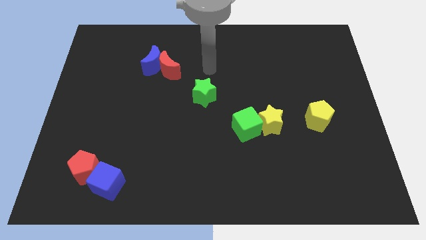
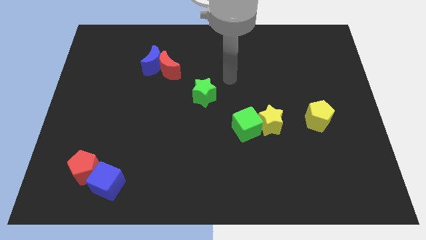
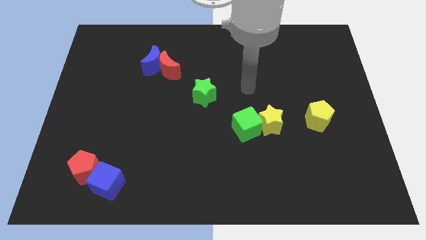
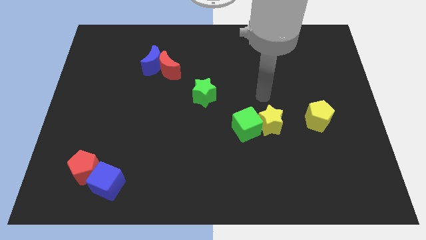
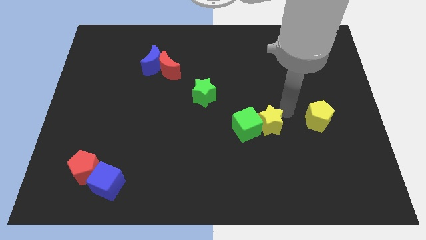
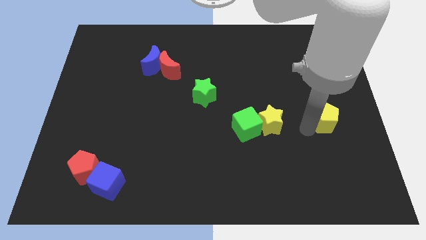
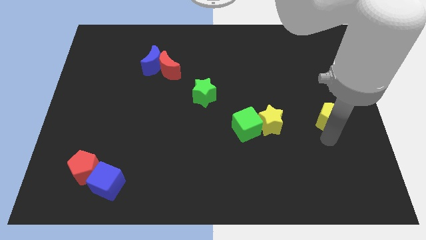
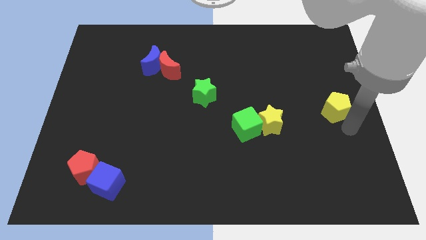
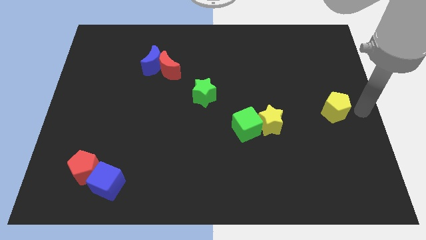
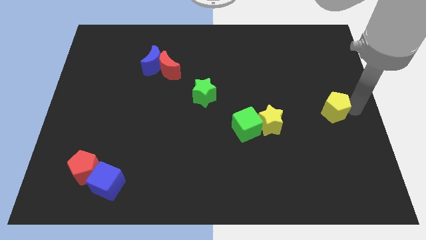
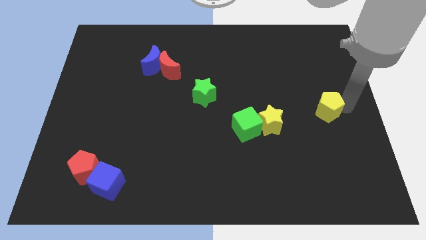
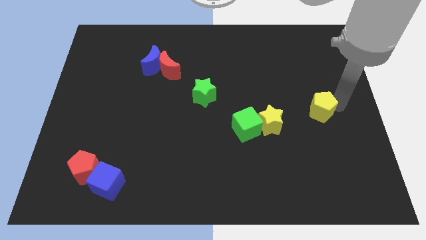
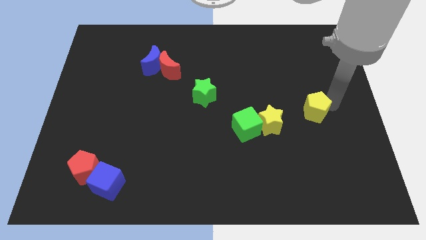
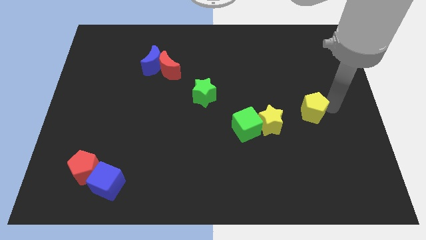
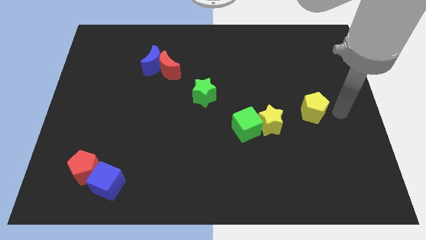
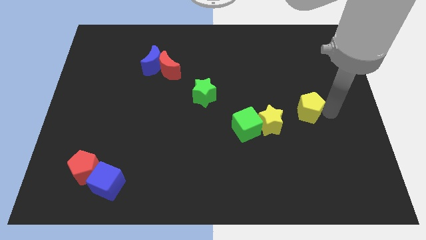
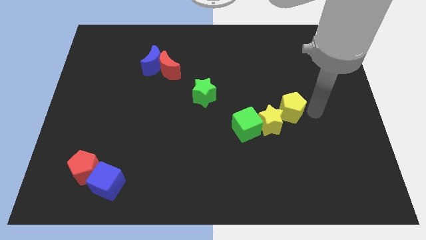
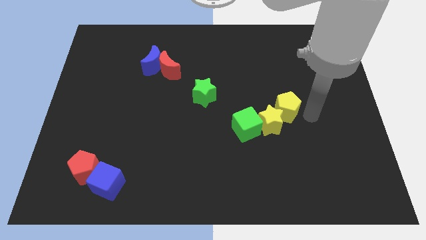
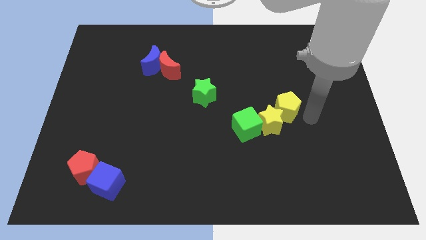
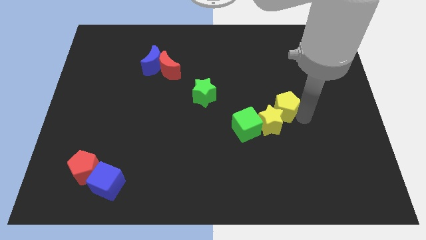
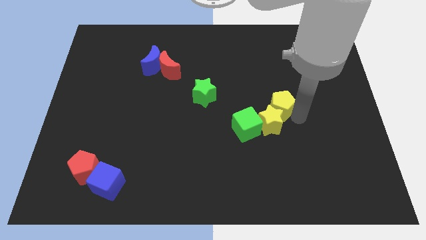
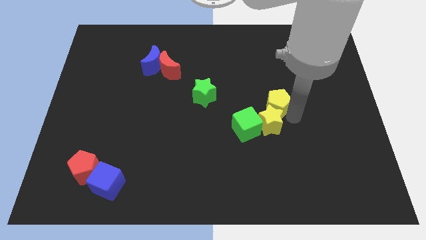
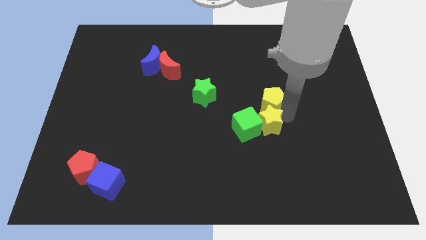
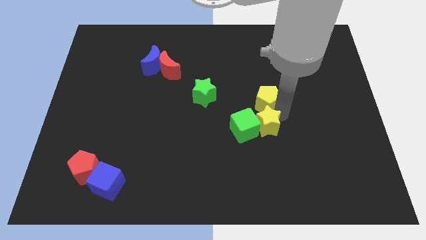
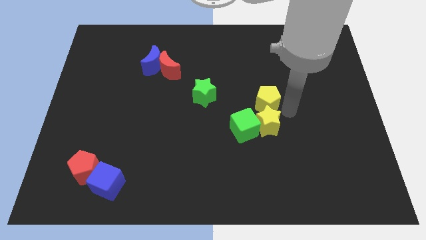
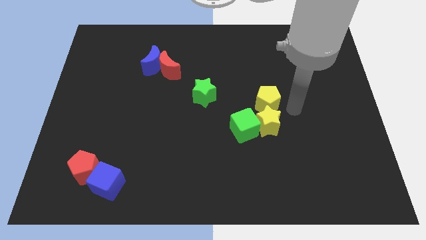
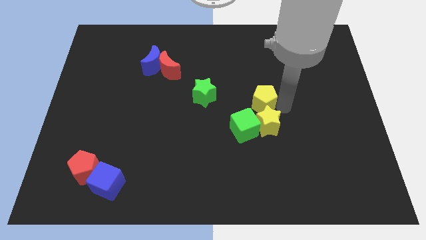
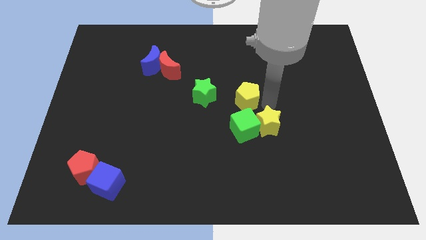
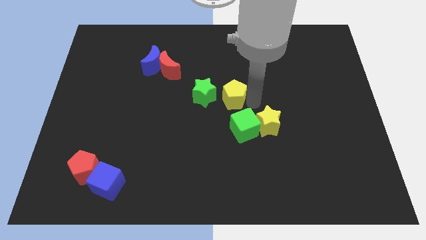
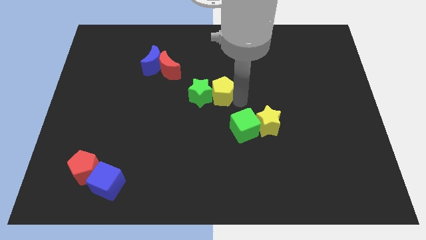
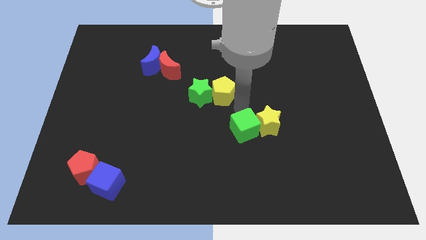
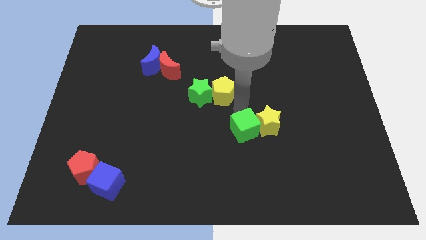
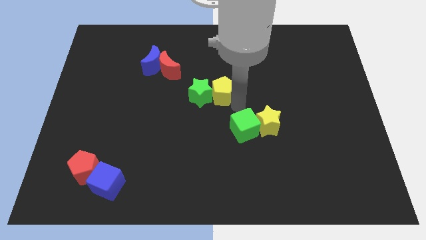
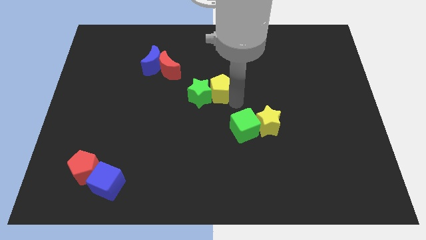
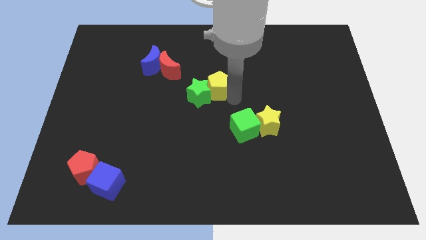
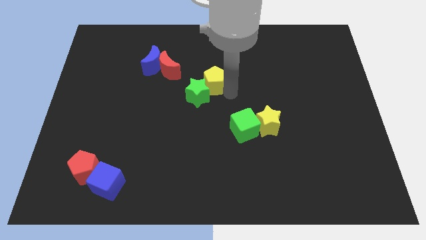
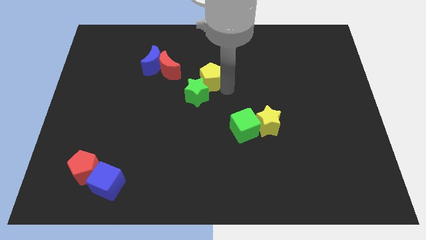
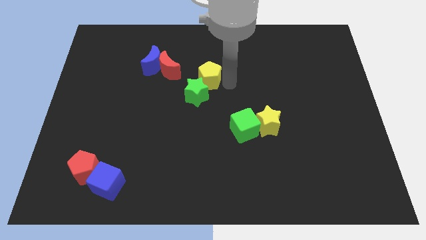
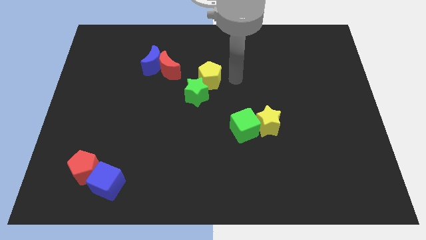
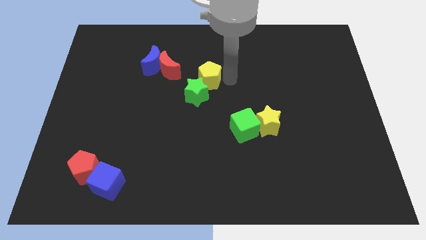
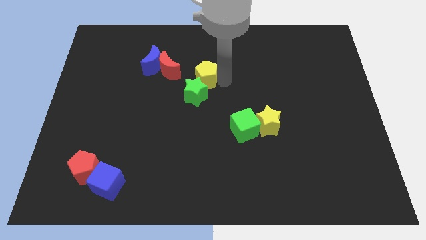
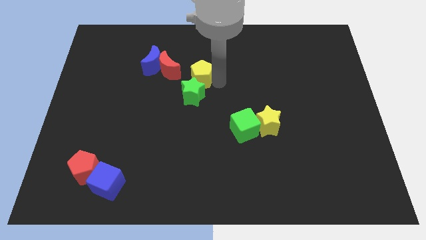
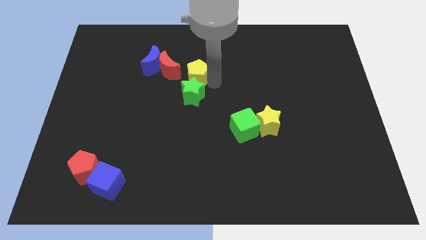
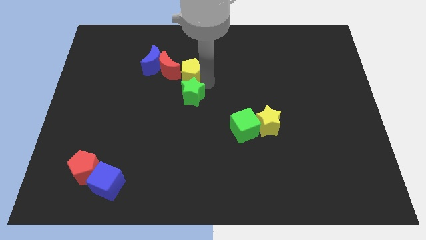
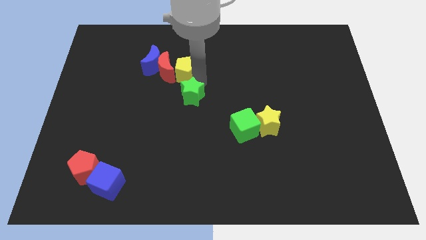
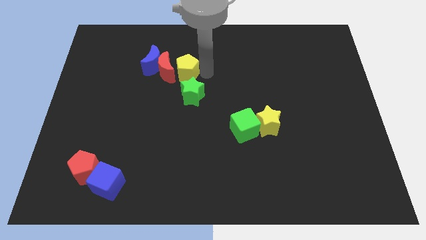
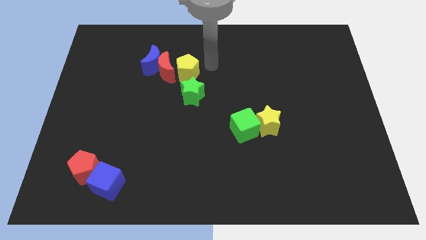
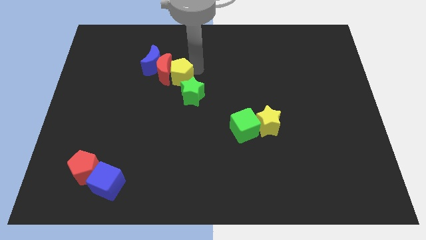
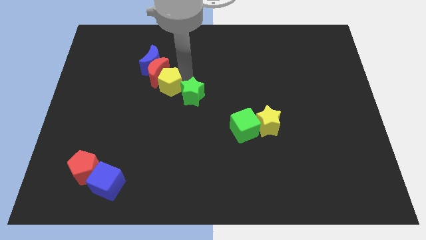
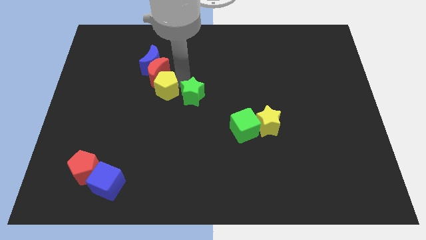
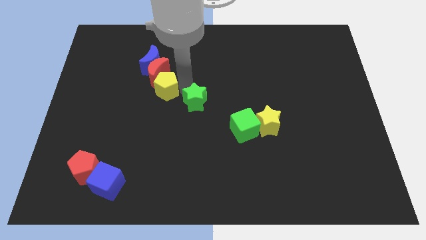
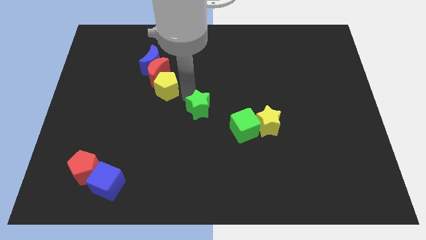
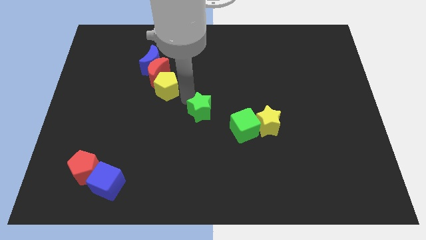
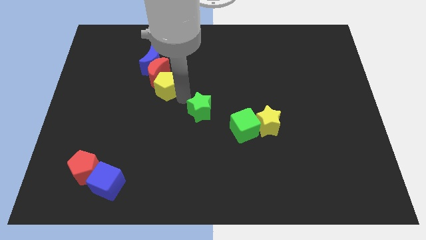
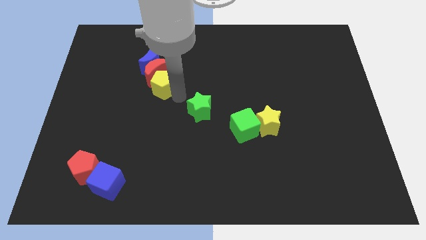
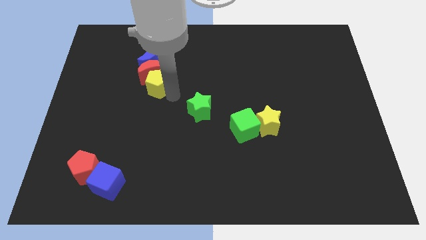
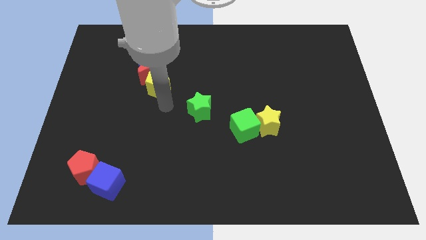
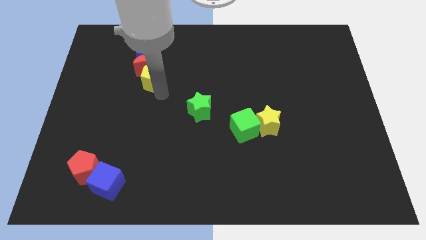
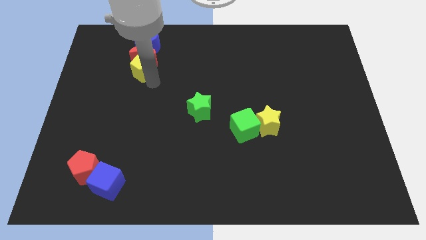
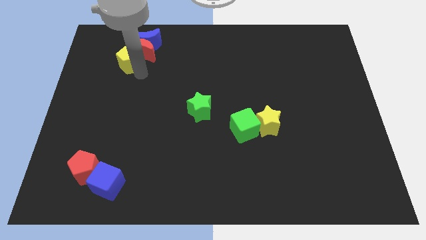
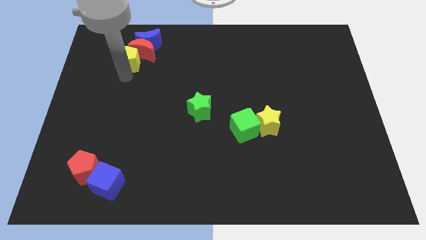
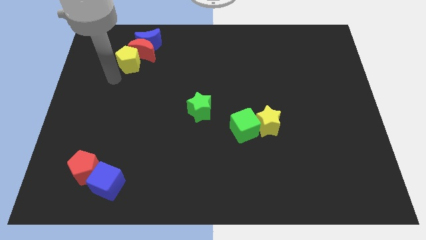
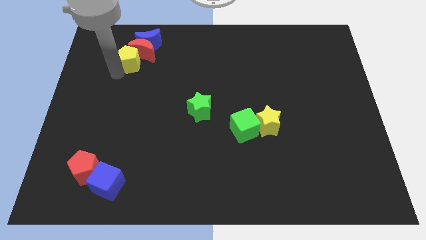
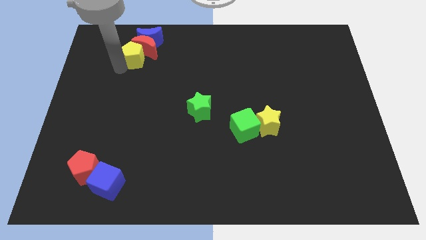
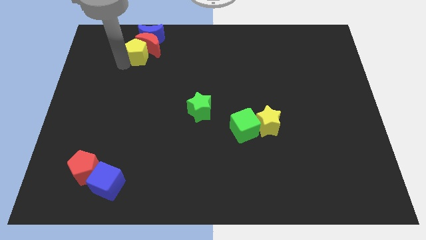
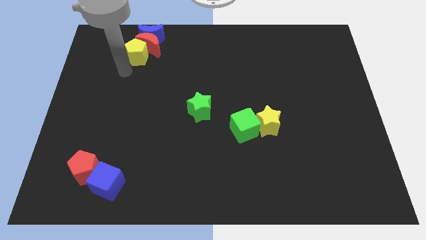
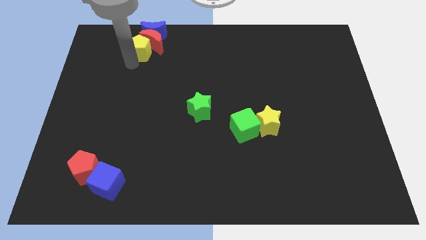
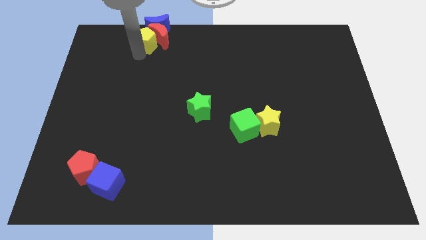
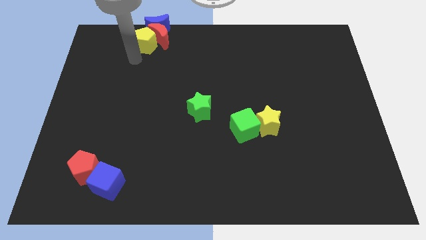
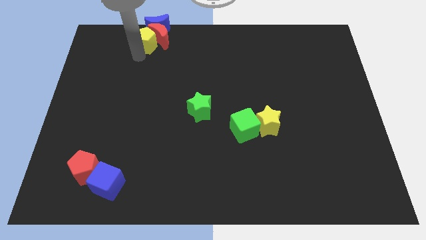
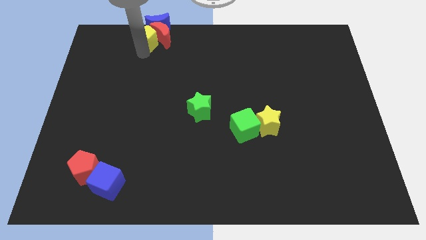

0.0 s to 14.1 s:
push the yellow pentagon to the blue moon

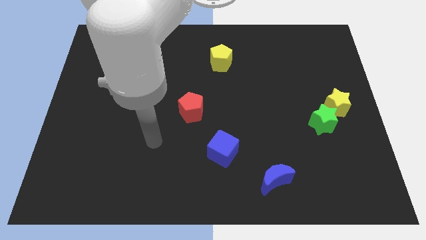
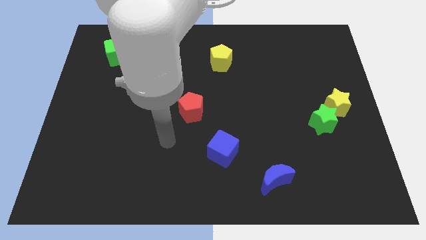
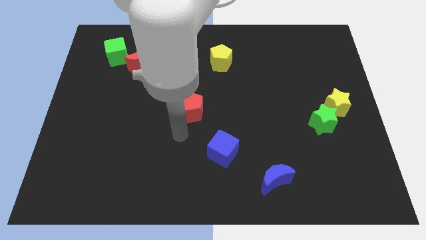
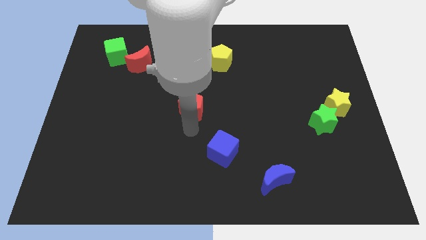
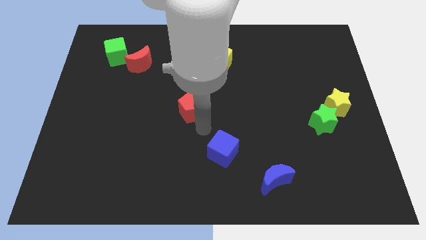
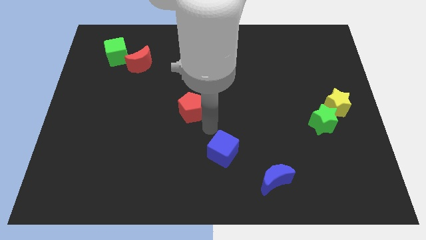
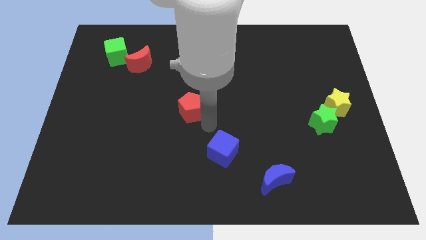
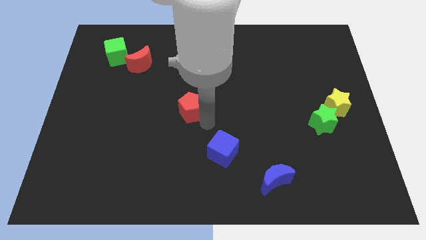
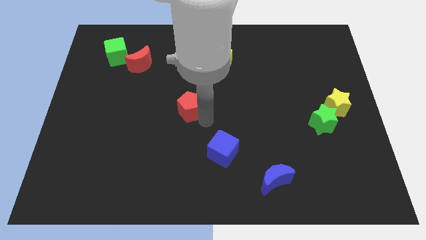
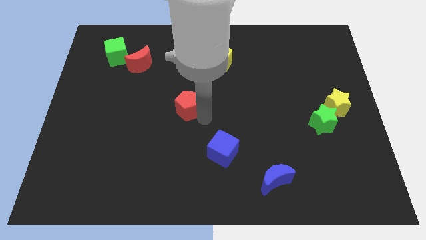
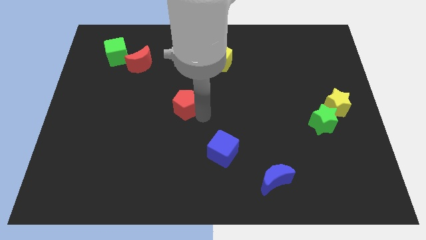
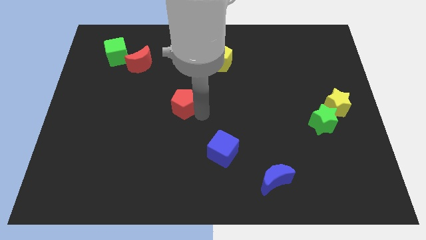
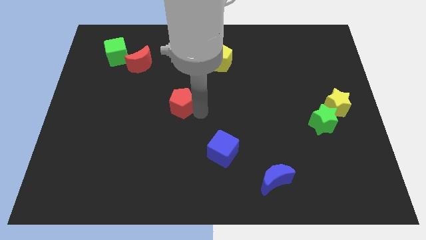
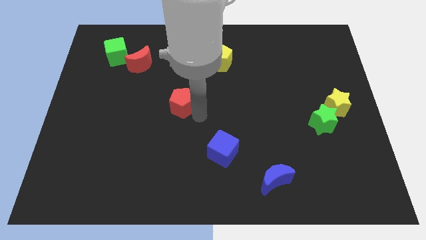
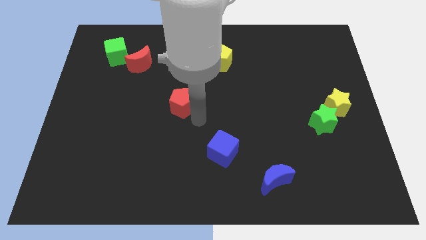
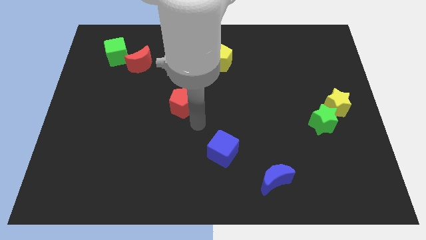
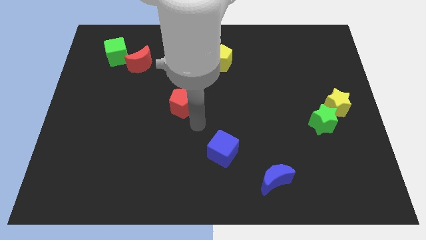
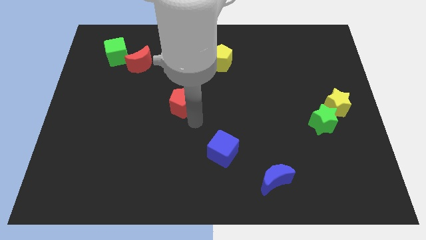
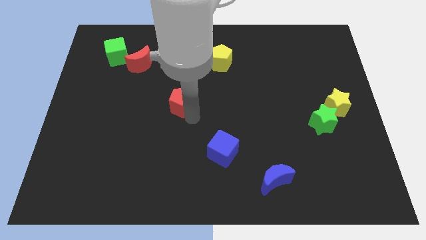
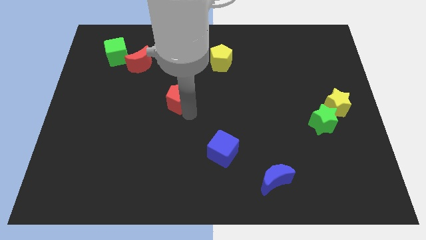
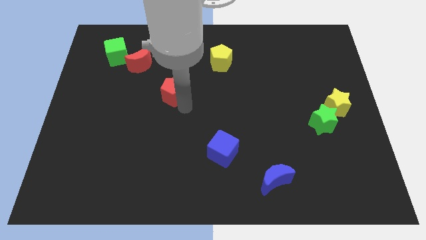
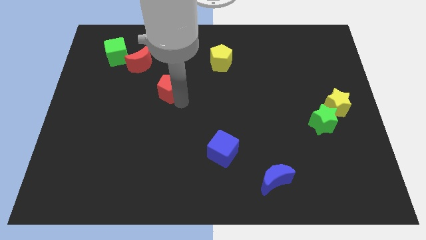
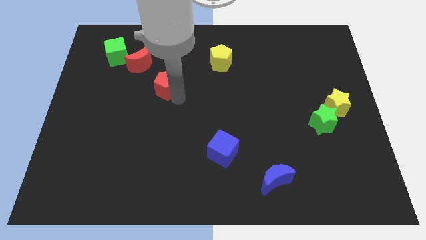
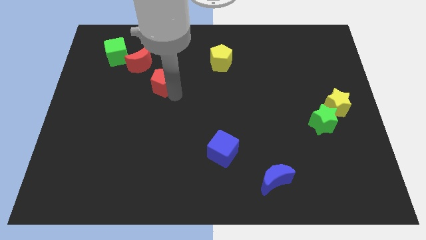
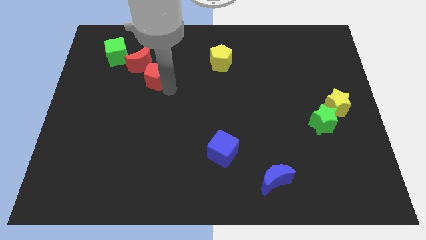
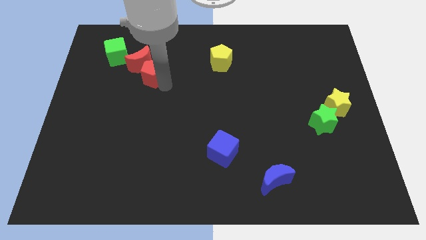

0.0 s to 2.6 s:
move the red pentagon next to the red moon
